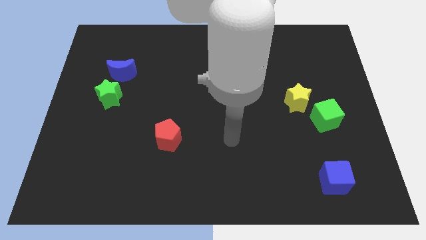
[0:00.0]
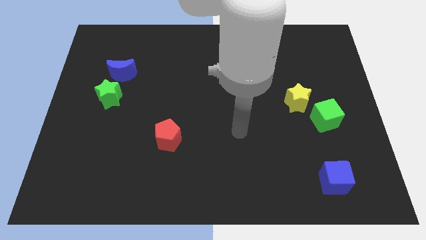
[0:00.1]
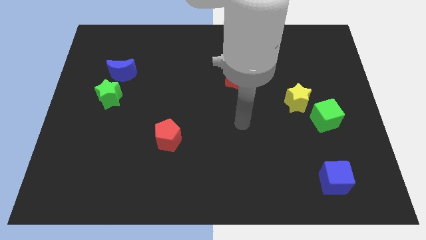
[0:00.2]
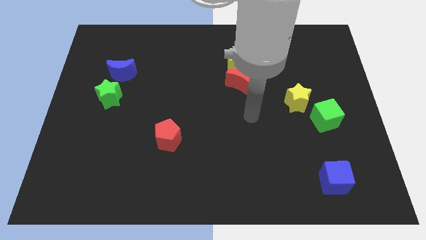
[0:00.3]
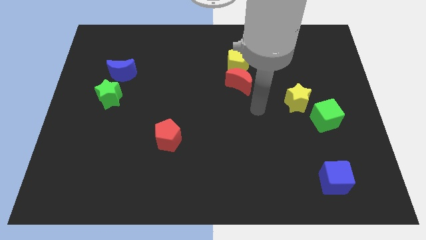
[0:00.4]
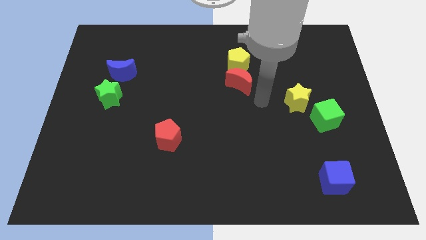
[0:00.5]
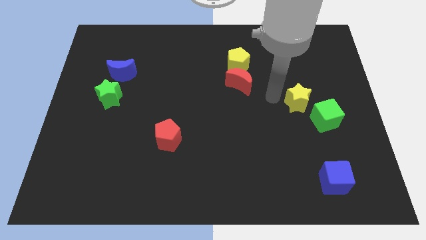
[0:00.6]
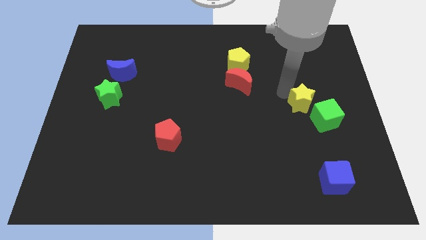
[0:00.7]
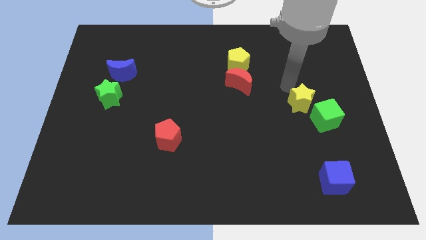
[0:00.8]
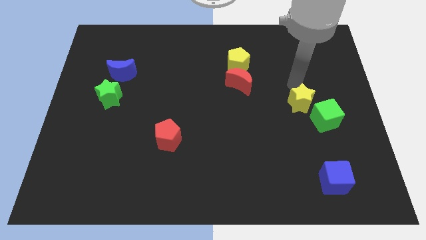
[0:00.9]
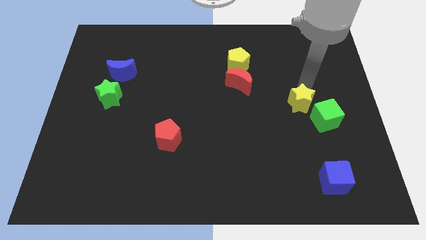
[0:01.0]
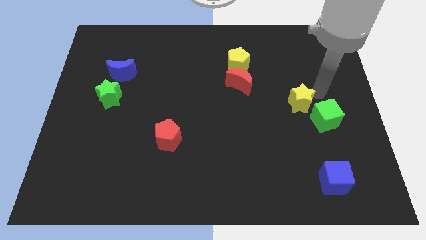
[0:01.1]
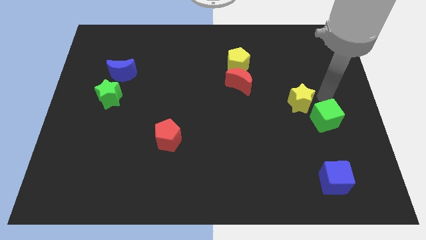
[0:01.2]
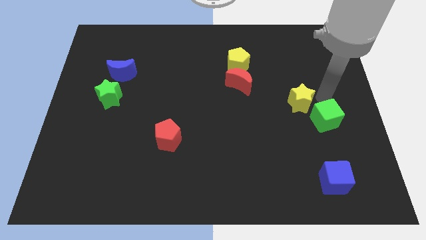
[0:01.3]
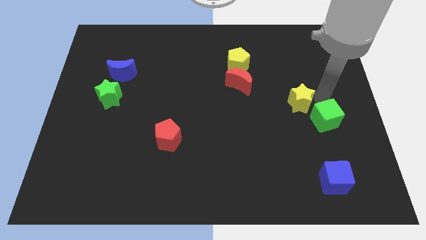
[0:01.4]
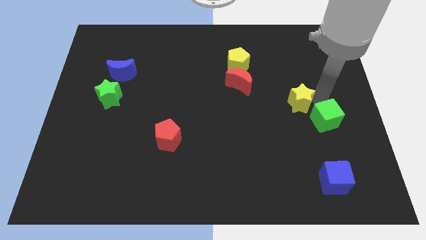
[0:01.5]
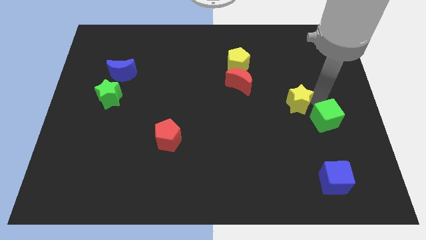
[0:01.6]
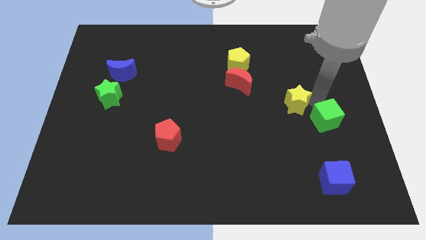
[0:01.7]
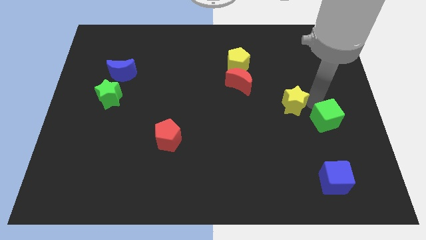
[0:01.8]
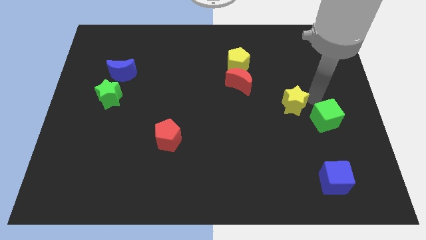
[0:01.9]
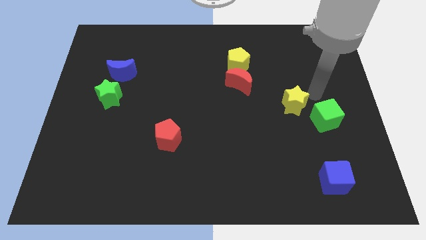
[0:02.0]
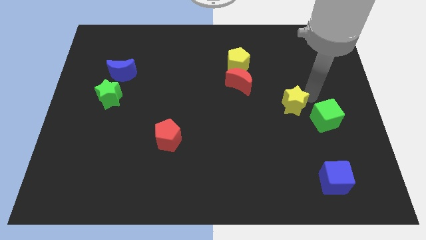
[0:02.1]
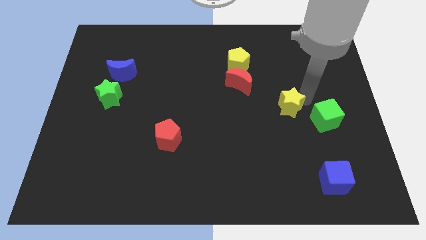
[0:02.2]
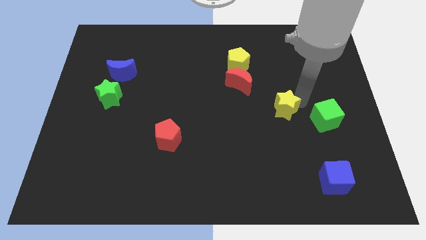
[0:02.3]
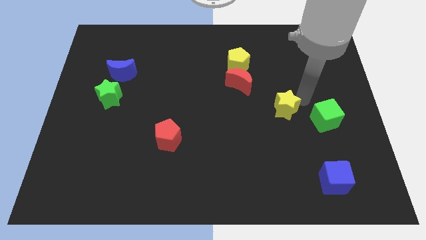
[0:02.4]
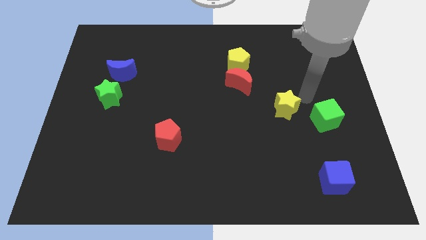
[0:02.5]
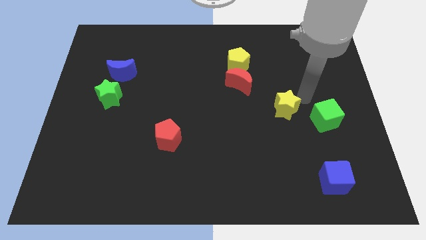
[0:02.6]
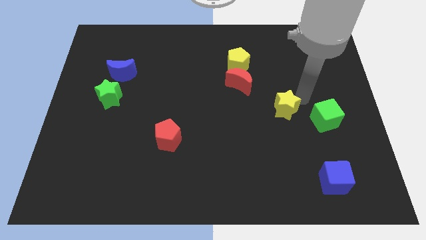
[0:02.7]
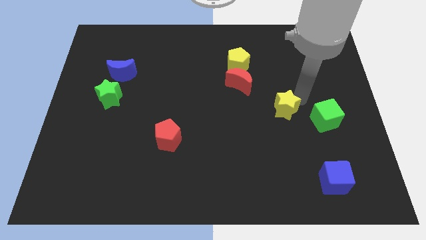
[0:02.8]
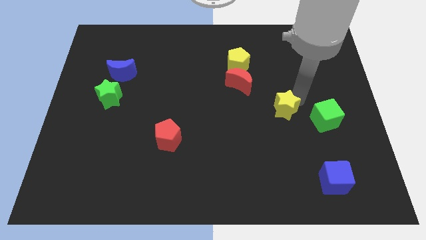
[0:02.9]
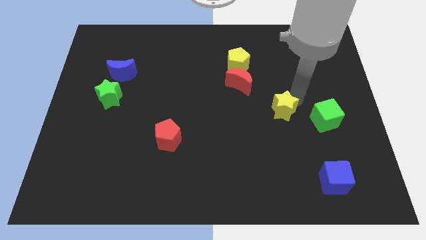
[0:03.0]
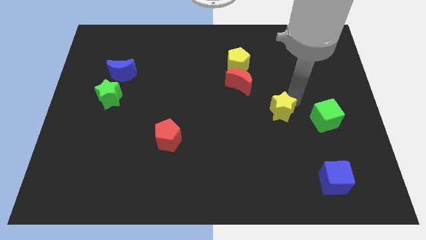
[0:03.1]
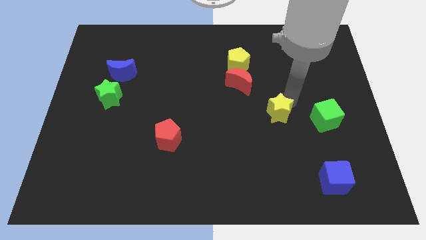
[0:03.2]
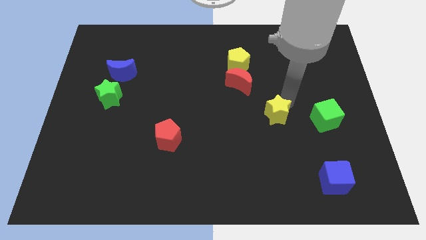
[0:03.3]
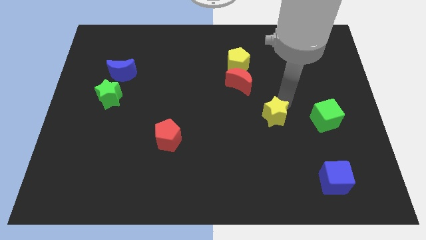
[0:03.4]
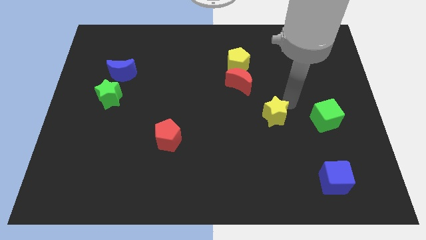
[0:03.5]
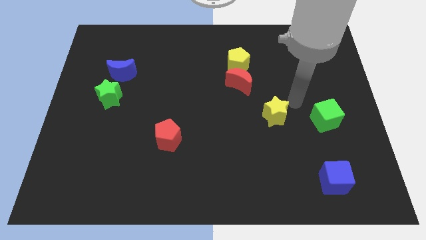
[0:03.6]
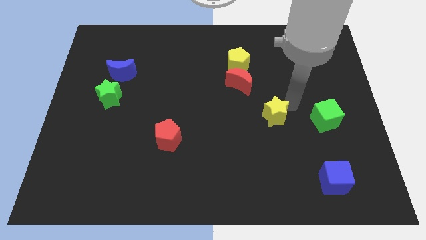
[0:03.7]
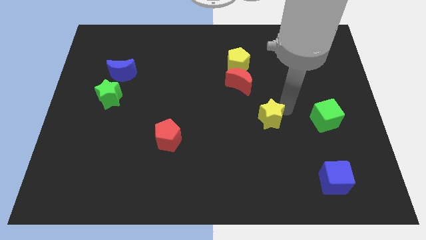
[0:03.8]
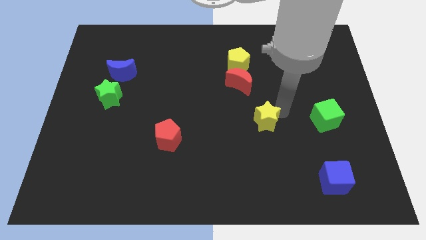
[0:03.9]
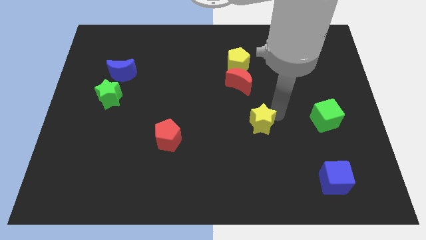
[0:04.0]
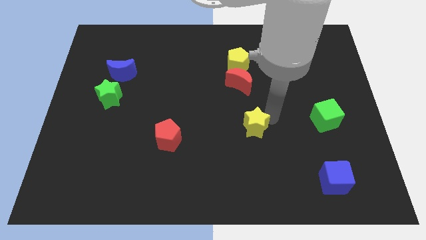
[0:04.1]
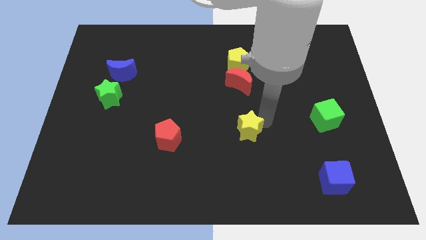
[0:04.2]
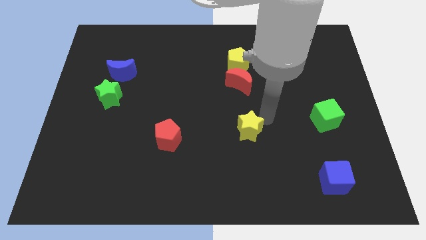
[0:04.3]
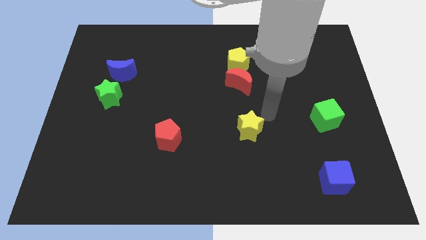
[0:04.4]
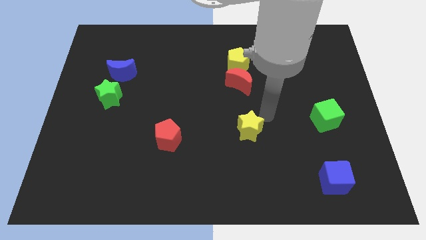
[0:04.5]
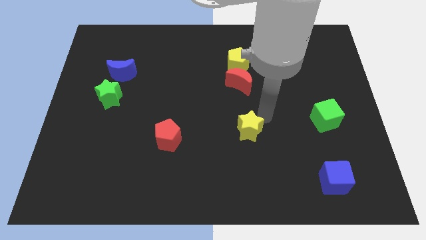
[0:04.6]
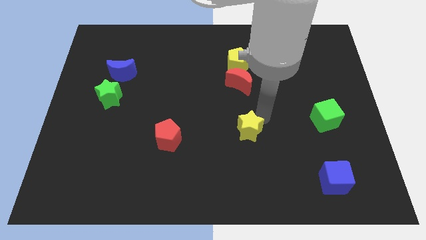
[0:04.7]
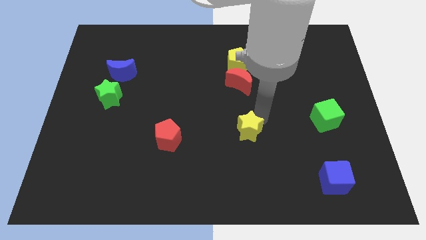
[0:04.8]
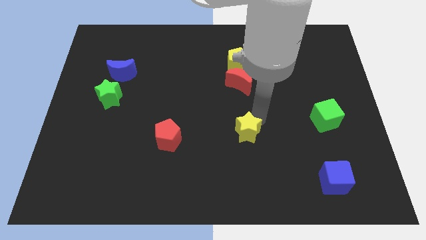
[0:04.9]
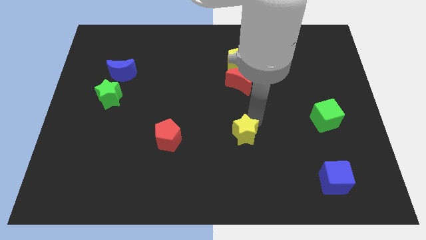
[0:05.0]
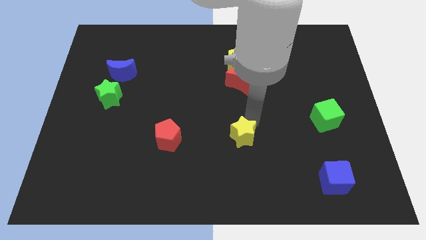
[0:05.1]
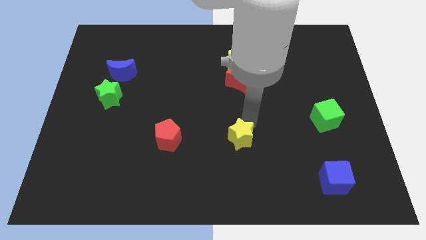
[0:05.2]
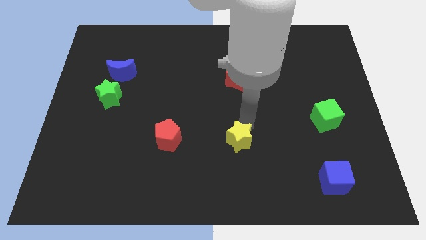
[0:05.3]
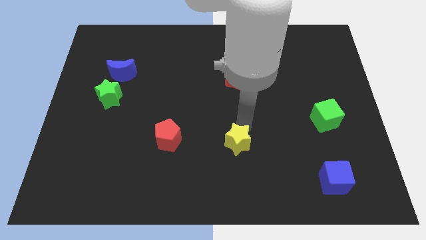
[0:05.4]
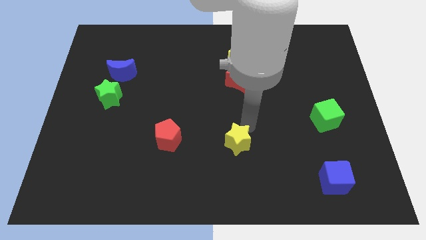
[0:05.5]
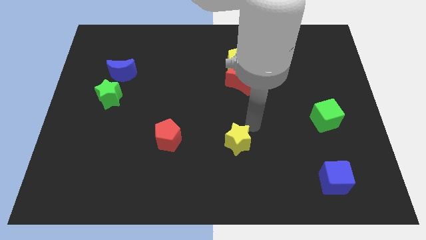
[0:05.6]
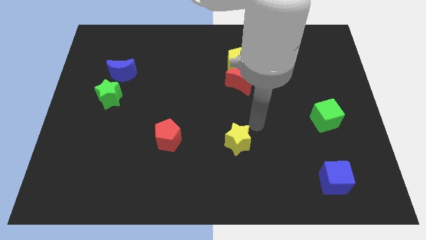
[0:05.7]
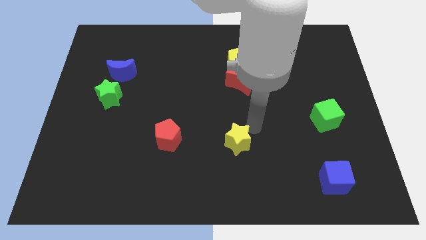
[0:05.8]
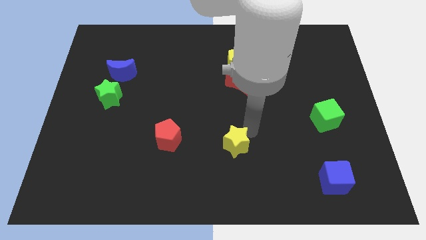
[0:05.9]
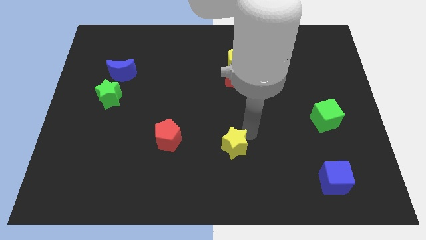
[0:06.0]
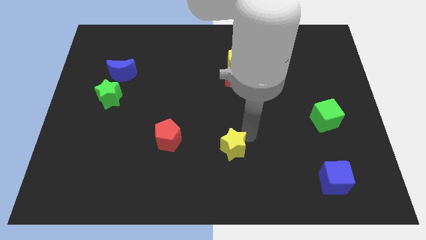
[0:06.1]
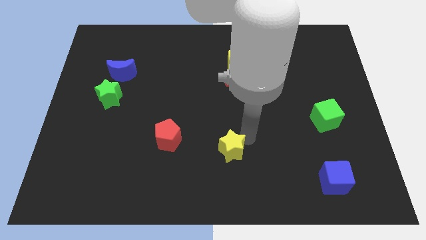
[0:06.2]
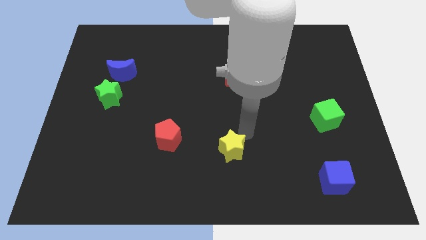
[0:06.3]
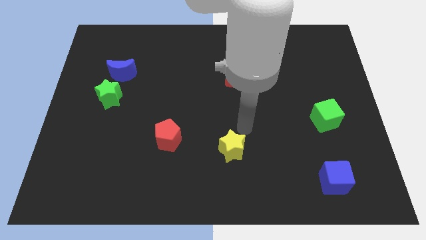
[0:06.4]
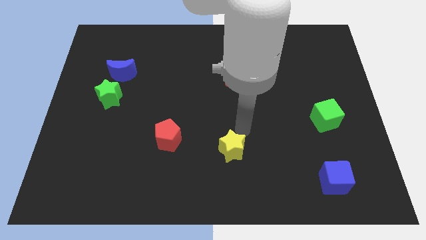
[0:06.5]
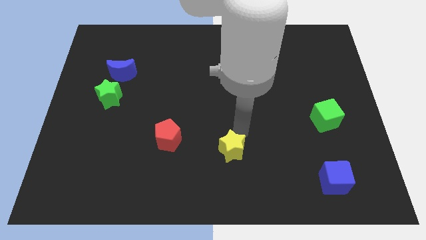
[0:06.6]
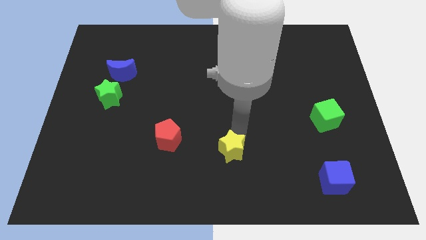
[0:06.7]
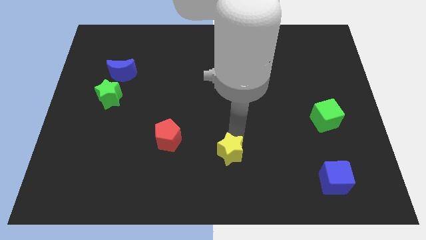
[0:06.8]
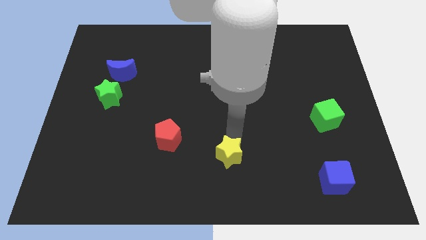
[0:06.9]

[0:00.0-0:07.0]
move the yellow star to the bottom
